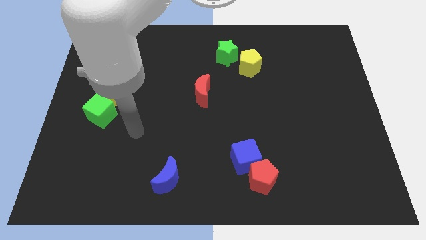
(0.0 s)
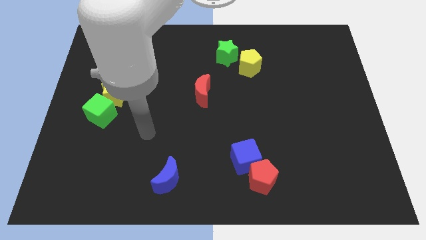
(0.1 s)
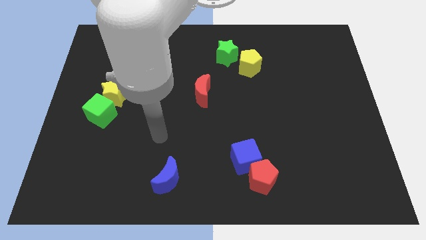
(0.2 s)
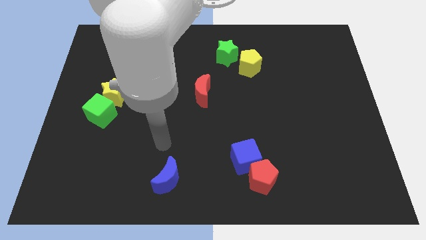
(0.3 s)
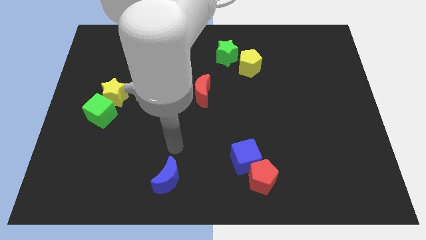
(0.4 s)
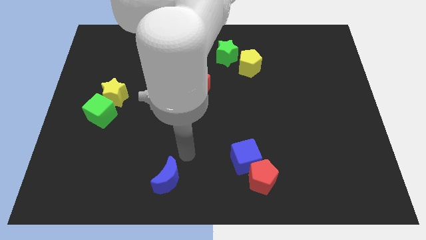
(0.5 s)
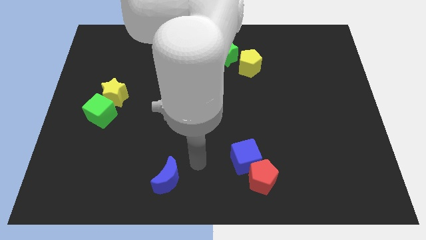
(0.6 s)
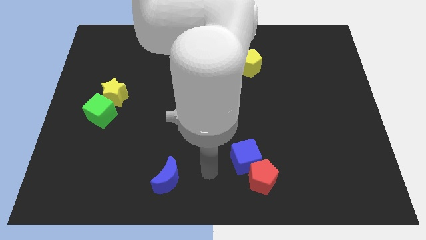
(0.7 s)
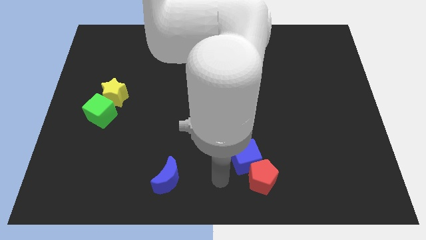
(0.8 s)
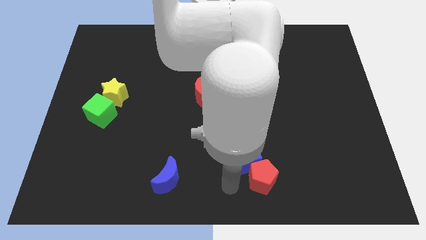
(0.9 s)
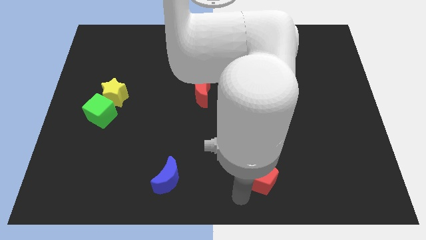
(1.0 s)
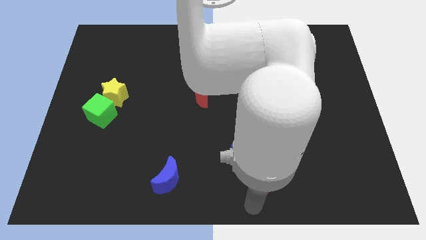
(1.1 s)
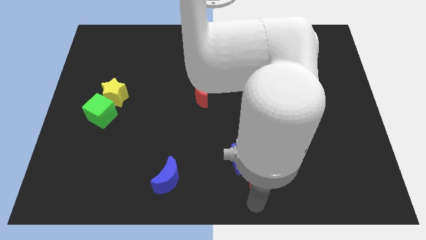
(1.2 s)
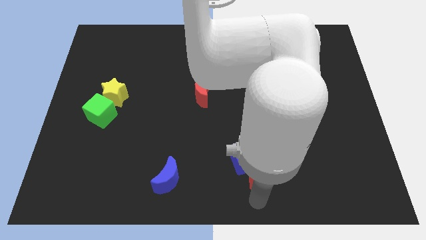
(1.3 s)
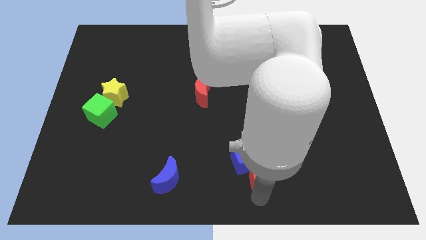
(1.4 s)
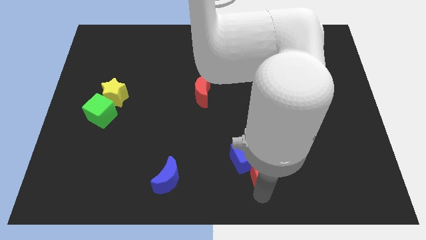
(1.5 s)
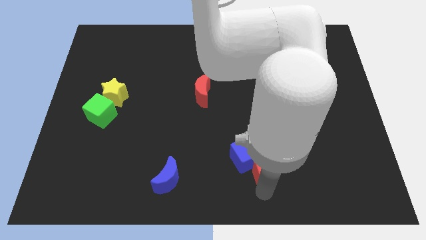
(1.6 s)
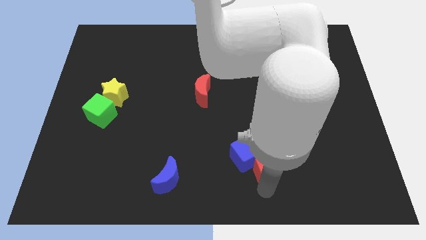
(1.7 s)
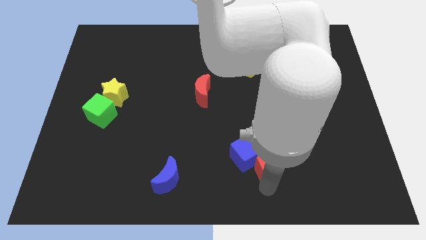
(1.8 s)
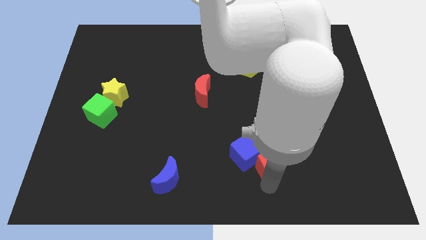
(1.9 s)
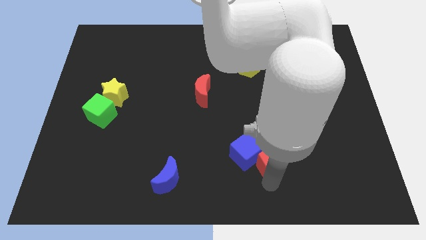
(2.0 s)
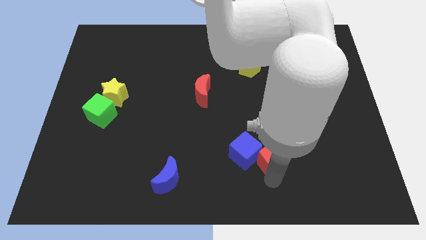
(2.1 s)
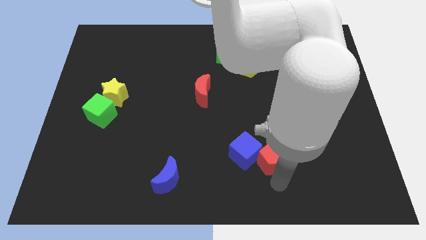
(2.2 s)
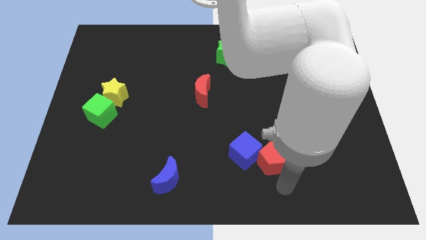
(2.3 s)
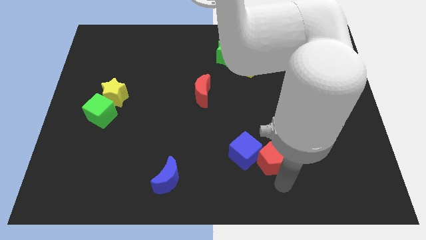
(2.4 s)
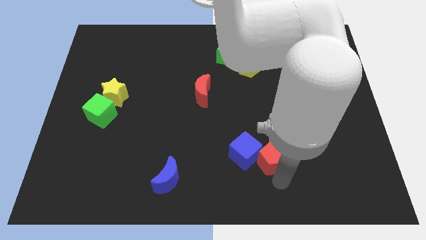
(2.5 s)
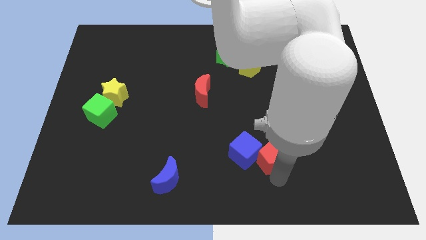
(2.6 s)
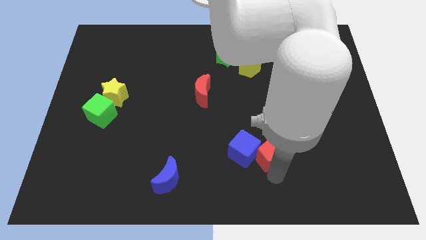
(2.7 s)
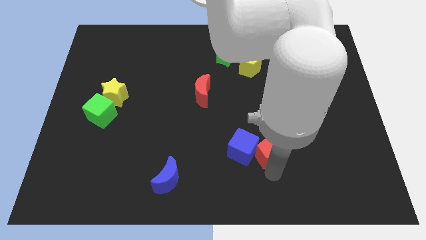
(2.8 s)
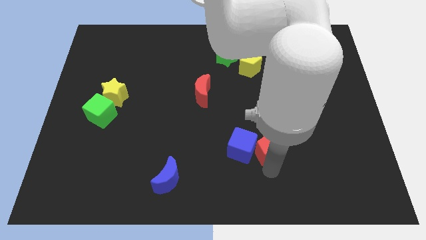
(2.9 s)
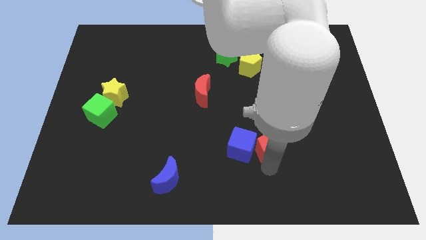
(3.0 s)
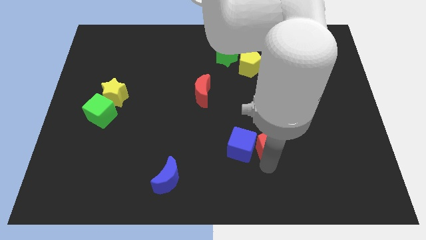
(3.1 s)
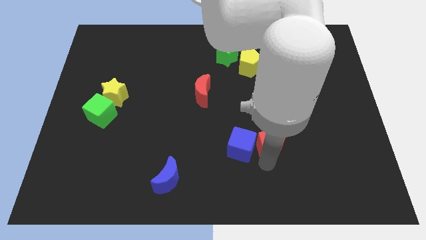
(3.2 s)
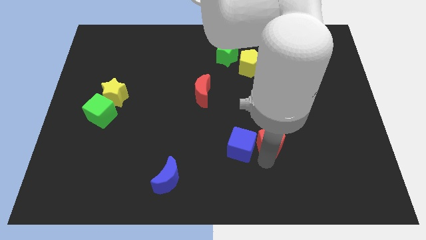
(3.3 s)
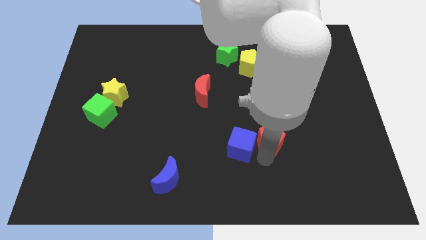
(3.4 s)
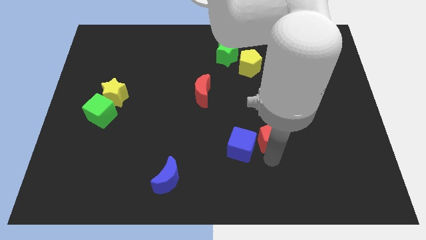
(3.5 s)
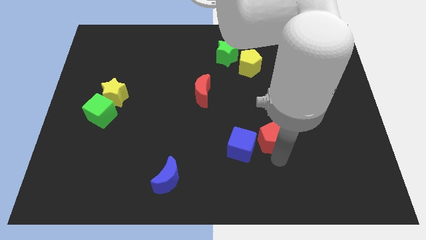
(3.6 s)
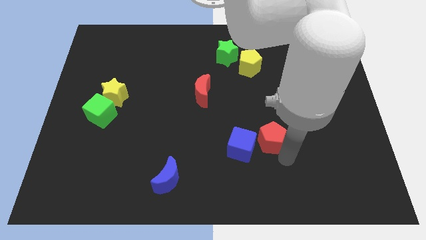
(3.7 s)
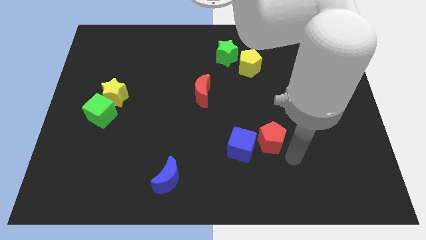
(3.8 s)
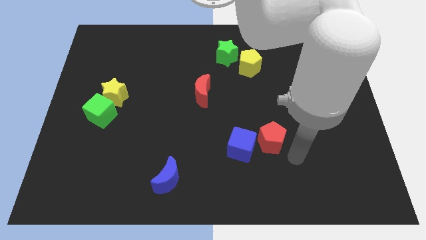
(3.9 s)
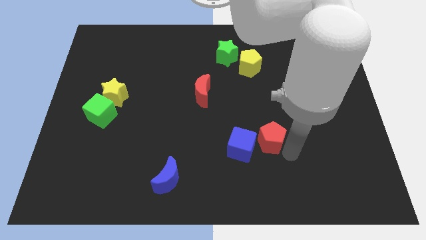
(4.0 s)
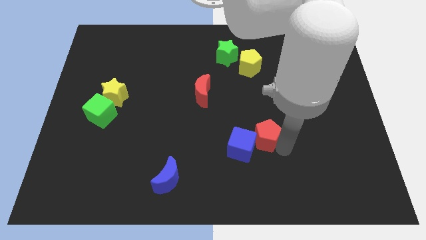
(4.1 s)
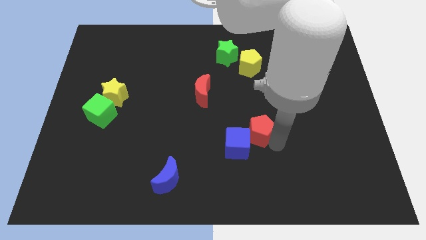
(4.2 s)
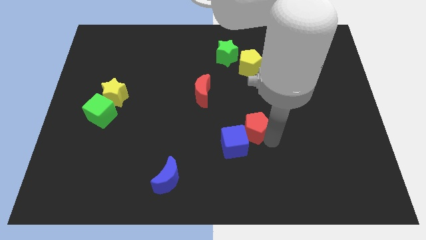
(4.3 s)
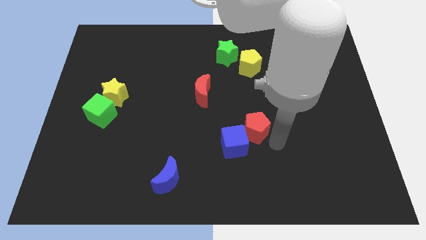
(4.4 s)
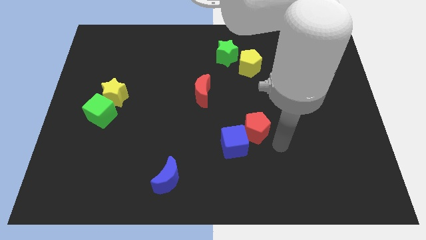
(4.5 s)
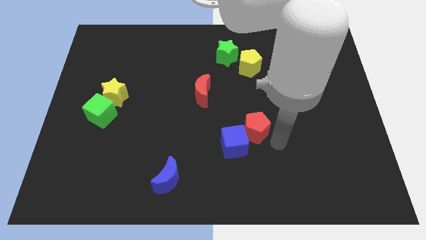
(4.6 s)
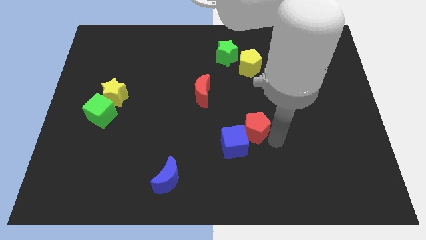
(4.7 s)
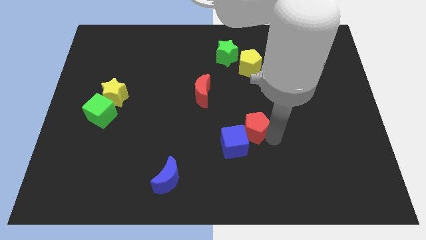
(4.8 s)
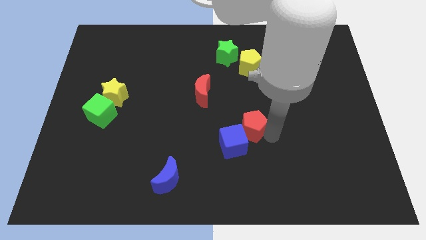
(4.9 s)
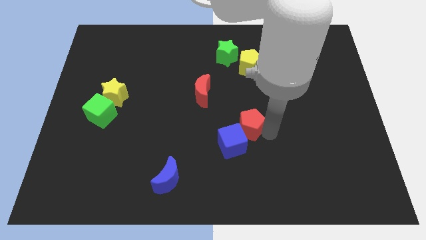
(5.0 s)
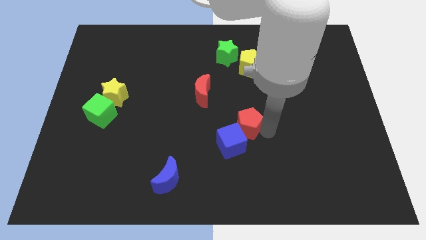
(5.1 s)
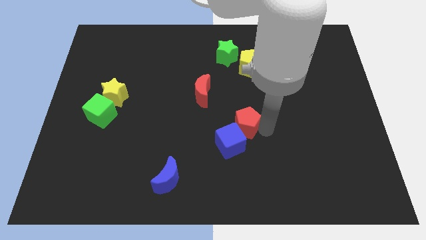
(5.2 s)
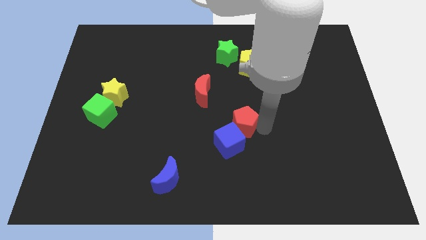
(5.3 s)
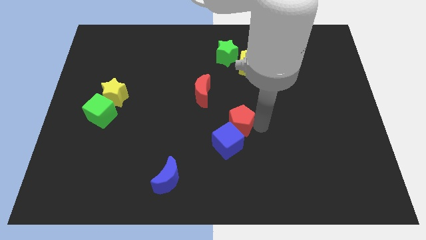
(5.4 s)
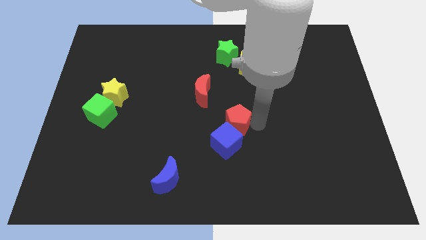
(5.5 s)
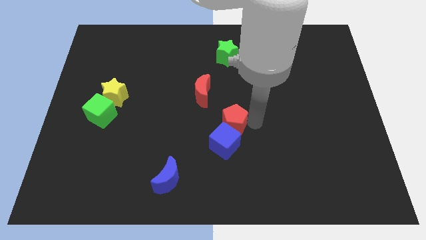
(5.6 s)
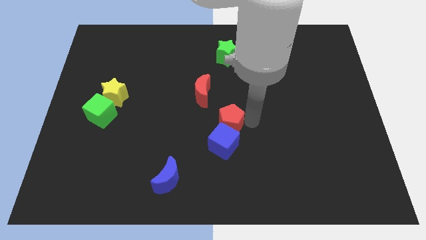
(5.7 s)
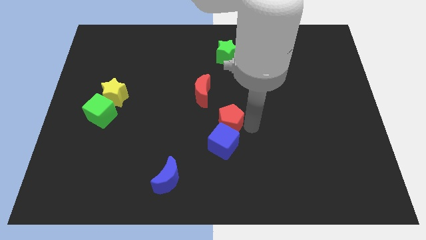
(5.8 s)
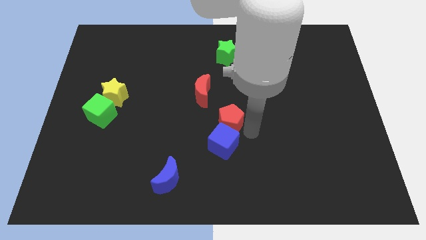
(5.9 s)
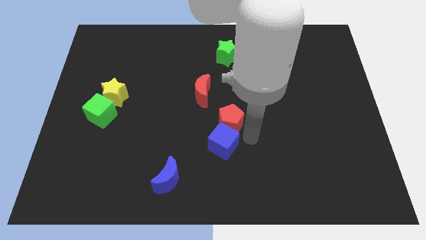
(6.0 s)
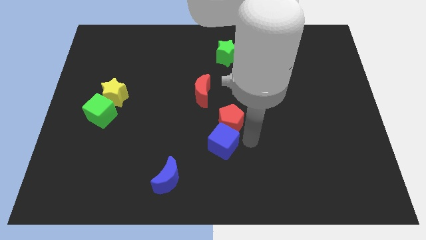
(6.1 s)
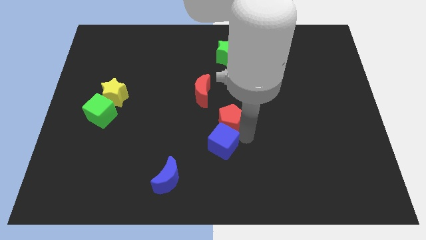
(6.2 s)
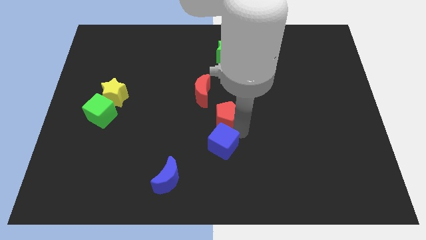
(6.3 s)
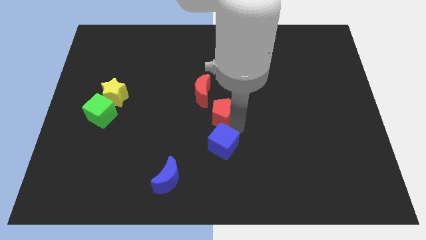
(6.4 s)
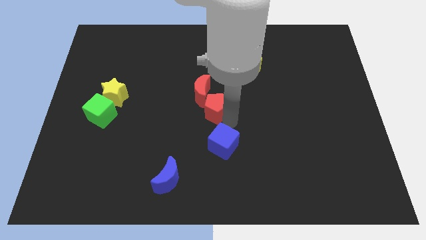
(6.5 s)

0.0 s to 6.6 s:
push the red pentagon towards the red moon
